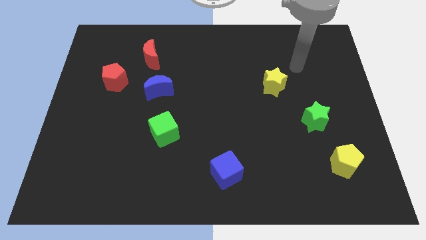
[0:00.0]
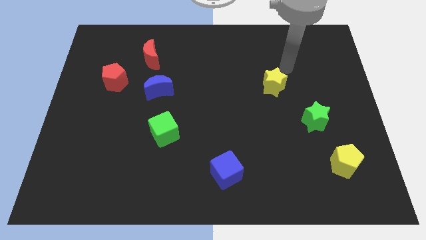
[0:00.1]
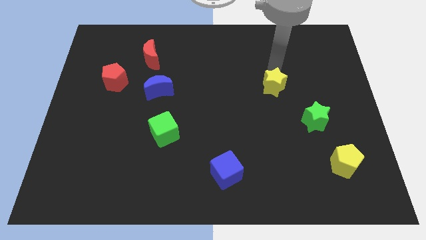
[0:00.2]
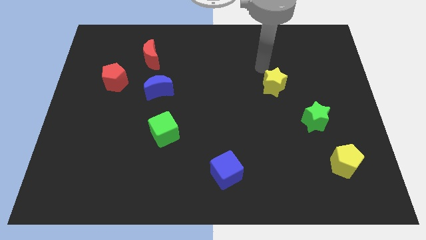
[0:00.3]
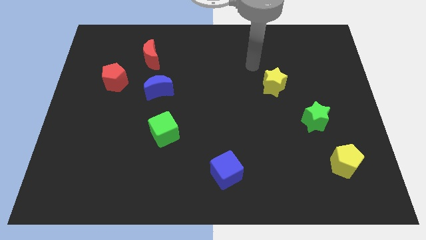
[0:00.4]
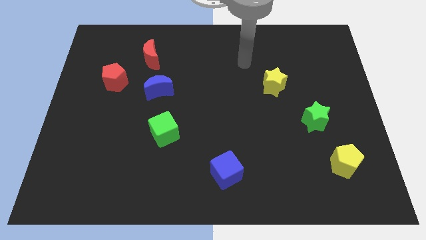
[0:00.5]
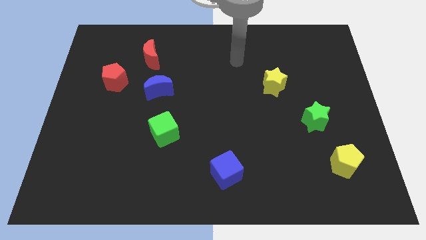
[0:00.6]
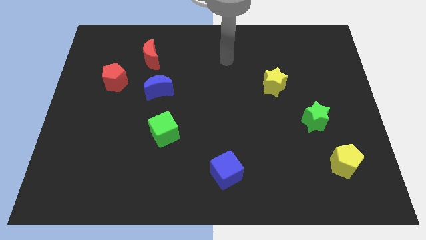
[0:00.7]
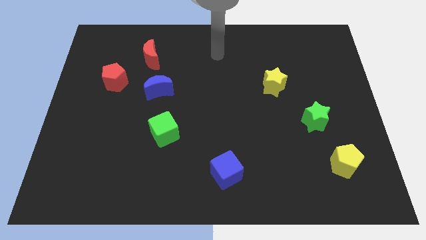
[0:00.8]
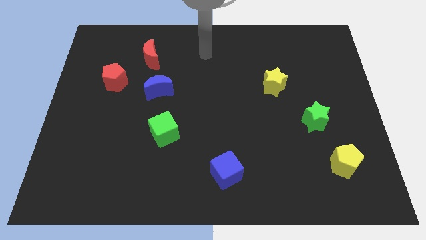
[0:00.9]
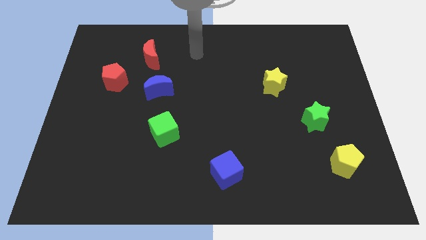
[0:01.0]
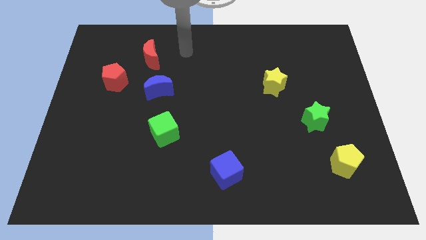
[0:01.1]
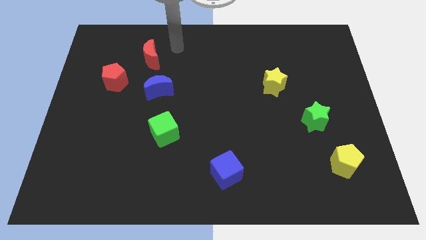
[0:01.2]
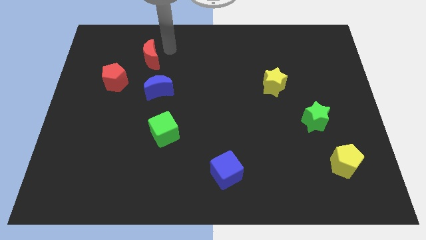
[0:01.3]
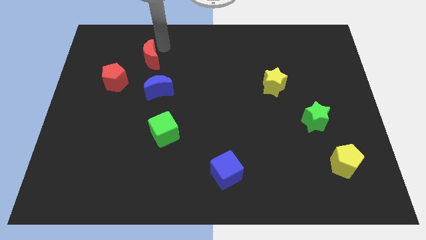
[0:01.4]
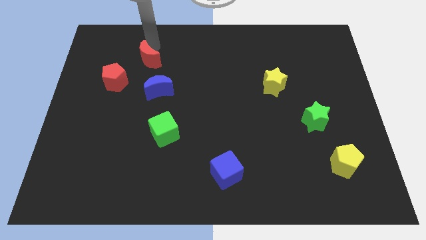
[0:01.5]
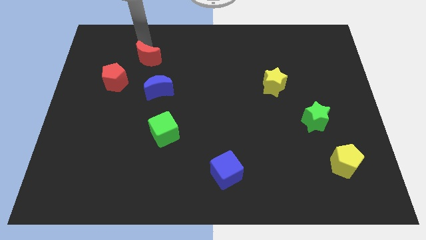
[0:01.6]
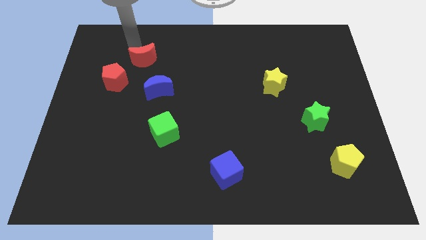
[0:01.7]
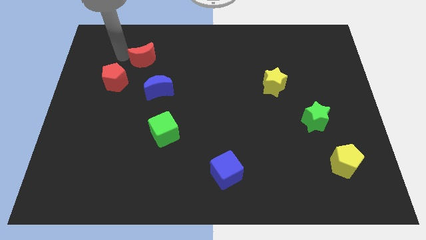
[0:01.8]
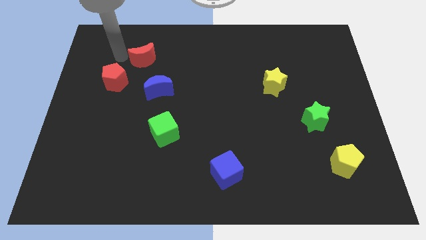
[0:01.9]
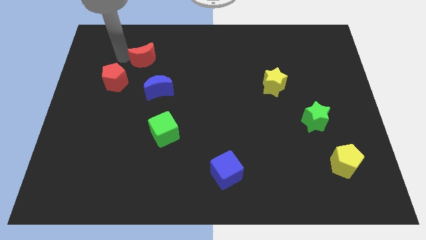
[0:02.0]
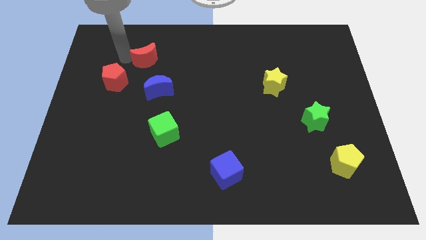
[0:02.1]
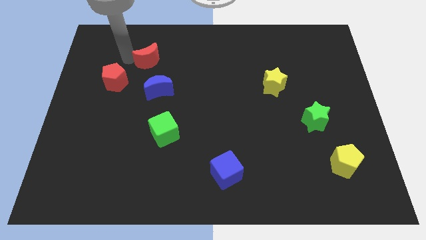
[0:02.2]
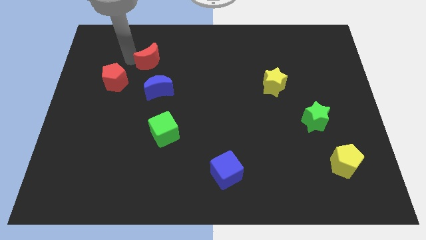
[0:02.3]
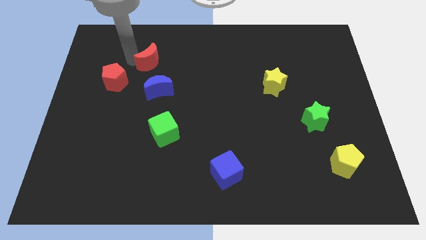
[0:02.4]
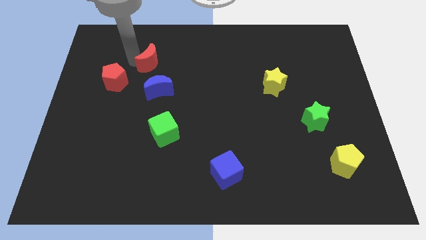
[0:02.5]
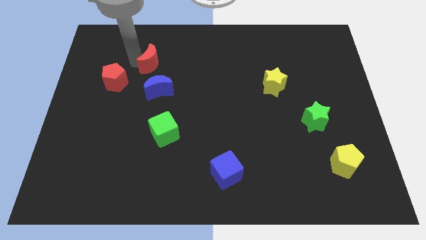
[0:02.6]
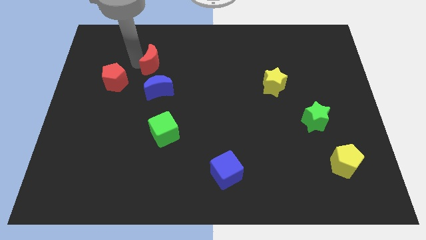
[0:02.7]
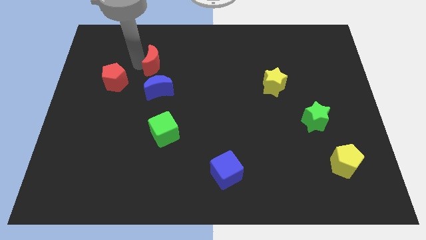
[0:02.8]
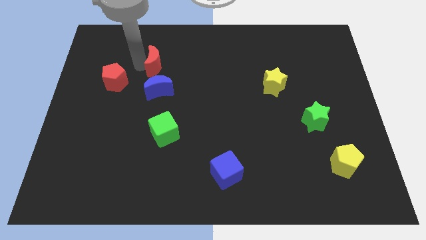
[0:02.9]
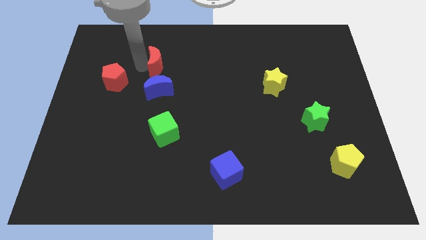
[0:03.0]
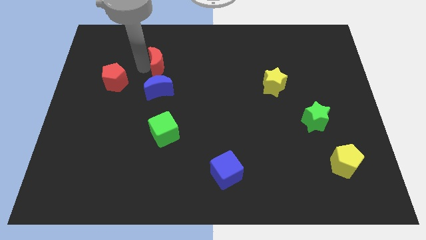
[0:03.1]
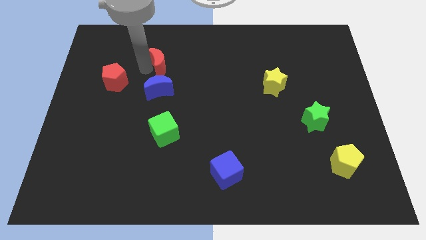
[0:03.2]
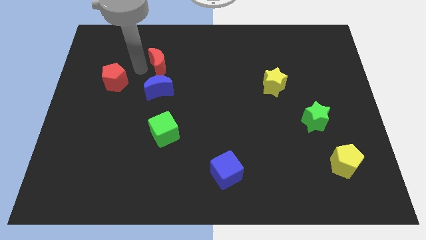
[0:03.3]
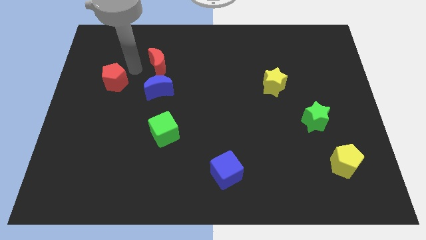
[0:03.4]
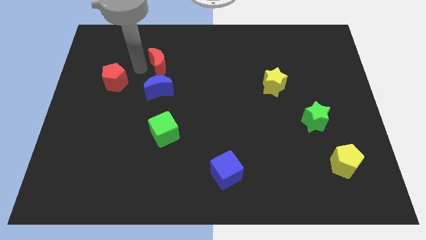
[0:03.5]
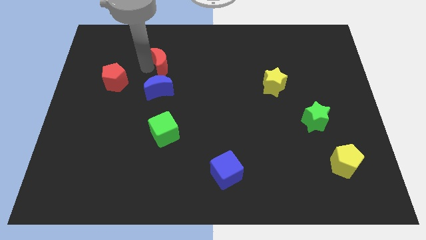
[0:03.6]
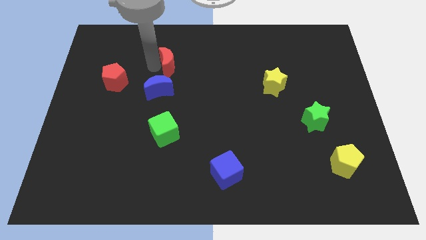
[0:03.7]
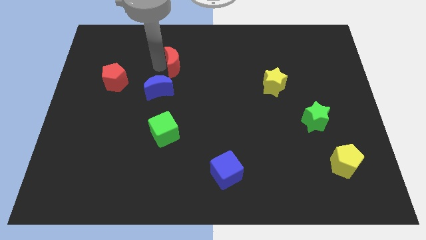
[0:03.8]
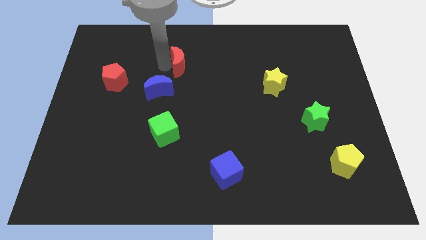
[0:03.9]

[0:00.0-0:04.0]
move the red moon right slightly

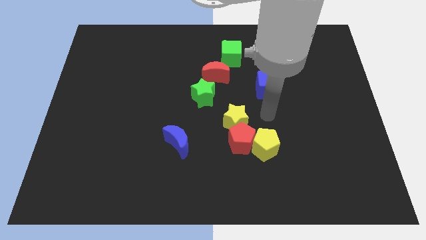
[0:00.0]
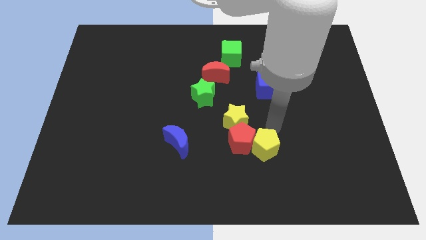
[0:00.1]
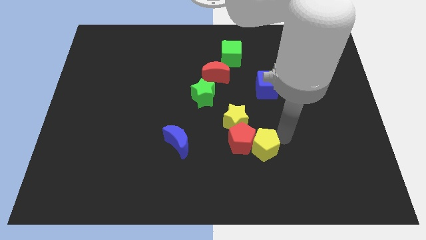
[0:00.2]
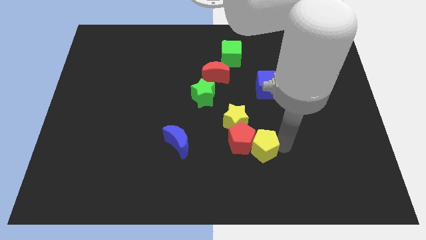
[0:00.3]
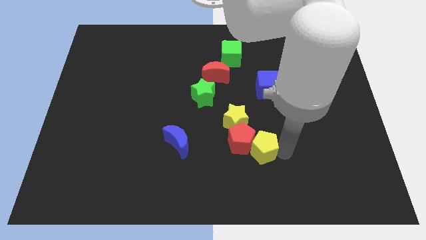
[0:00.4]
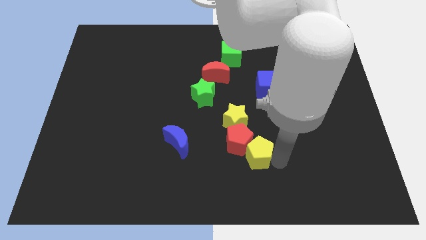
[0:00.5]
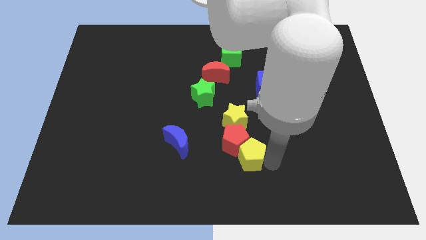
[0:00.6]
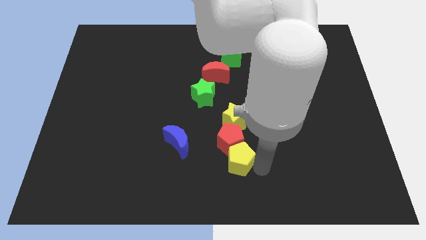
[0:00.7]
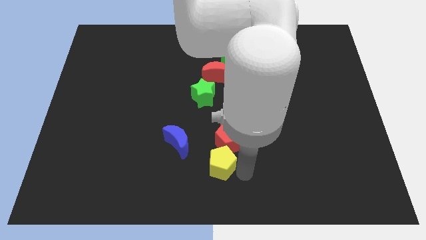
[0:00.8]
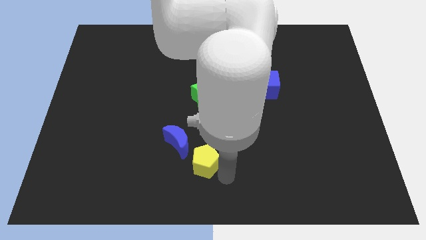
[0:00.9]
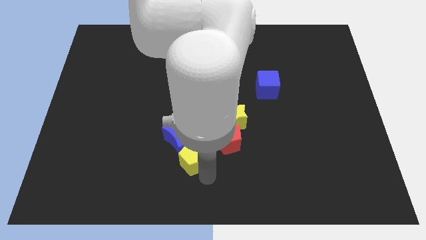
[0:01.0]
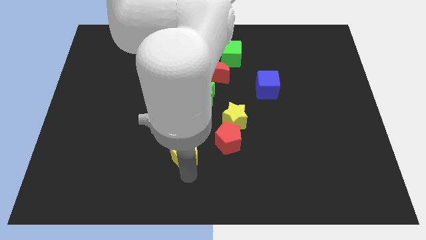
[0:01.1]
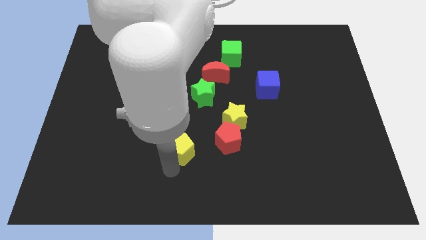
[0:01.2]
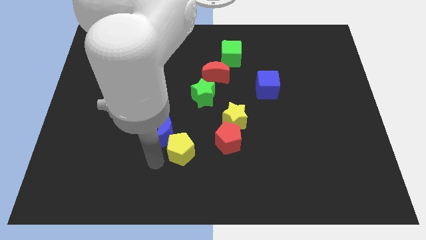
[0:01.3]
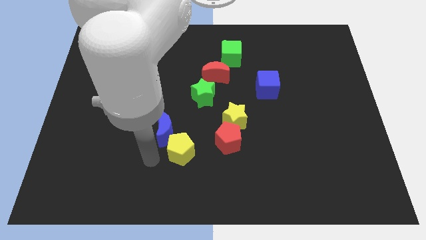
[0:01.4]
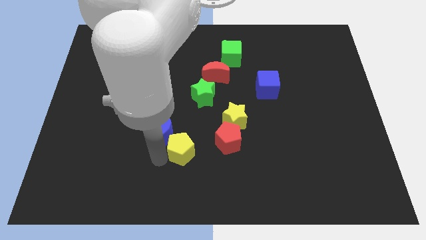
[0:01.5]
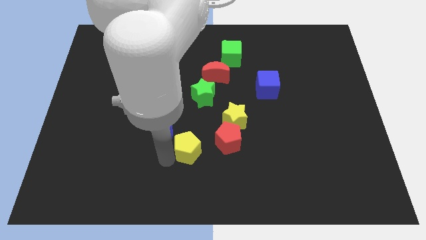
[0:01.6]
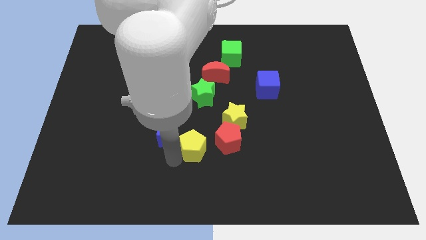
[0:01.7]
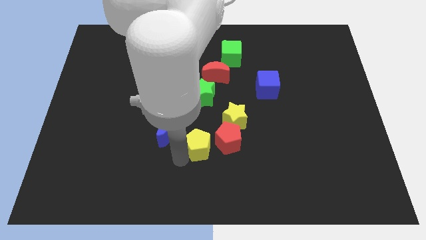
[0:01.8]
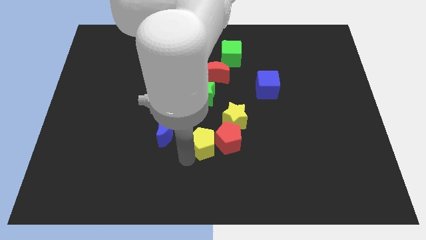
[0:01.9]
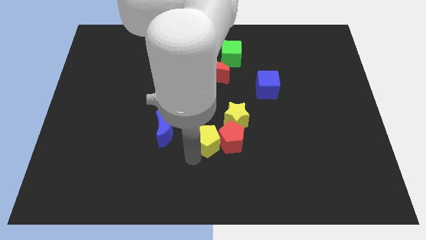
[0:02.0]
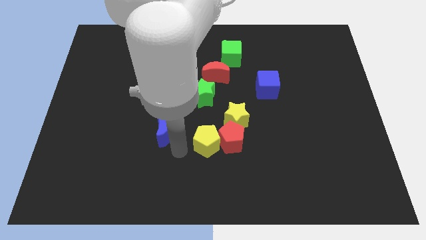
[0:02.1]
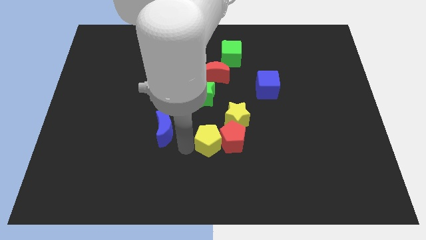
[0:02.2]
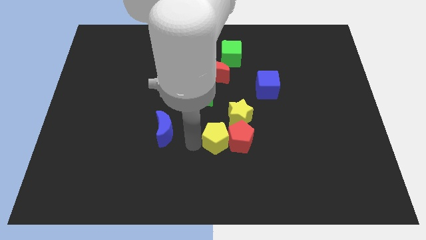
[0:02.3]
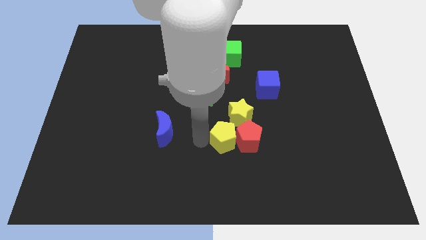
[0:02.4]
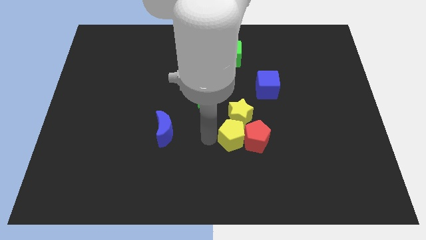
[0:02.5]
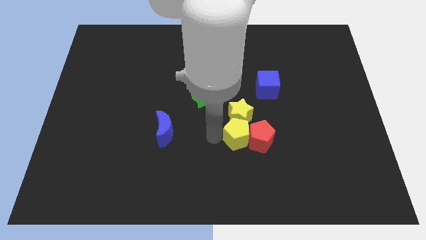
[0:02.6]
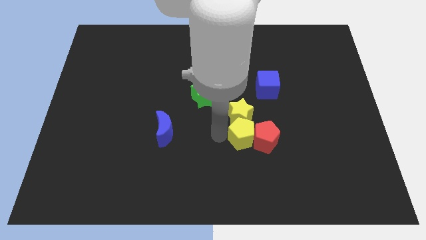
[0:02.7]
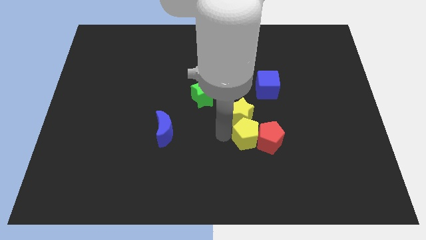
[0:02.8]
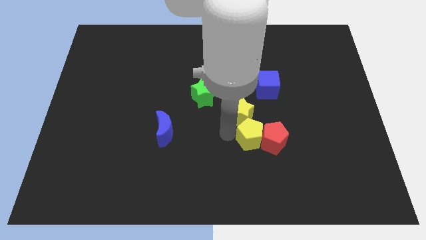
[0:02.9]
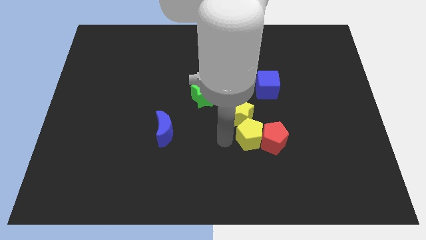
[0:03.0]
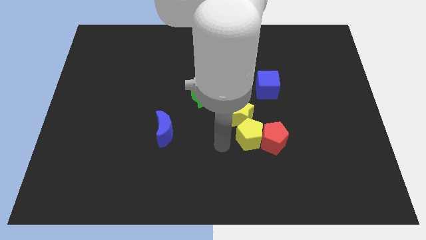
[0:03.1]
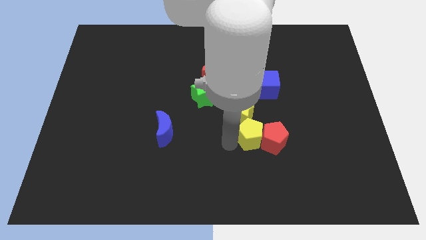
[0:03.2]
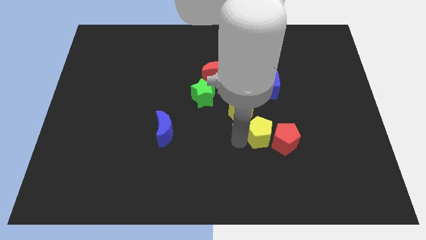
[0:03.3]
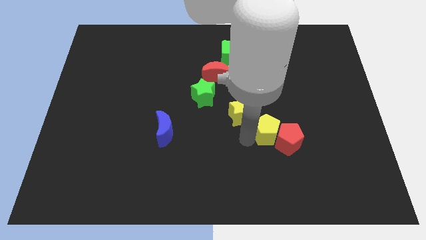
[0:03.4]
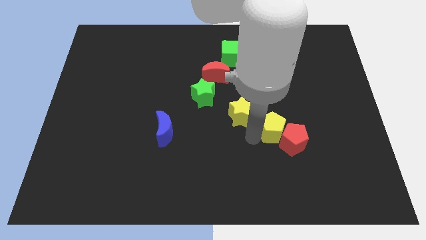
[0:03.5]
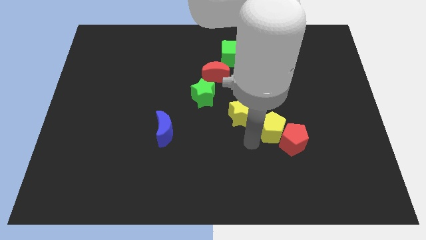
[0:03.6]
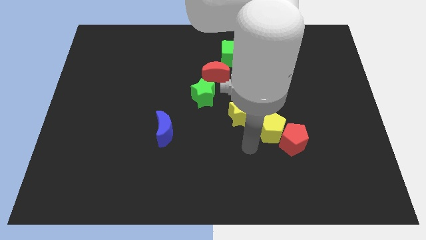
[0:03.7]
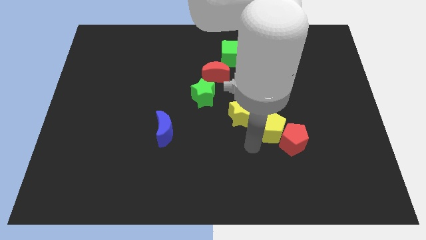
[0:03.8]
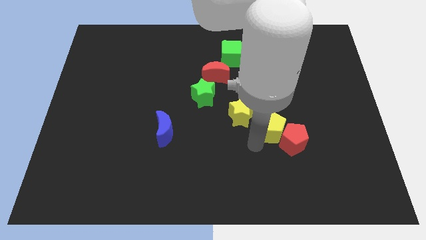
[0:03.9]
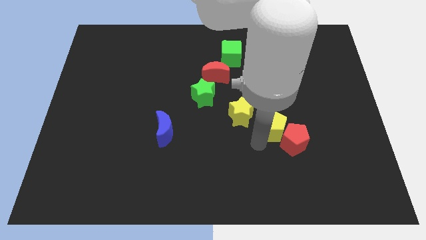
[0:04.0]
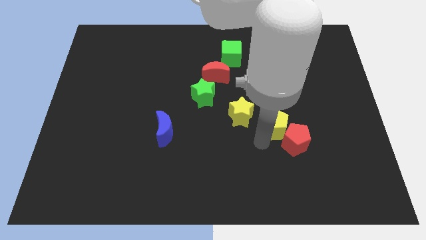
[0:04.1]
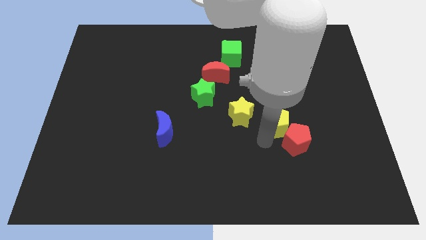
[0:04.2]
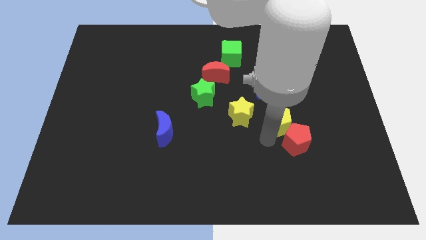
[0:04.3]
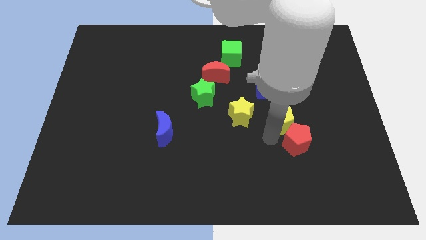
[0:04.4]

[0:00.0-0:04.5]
move the yellow pentagon diagonally up and to the right a bit
